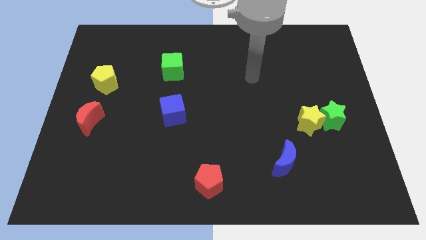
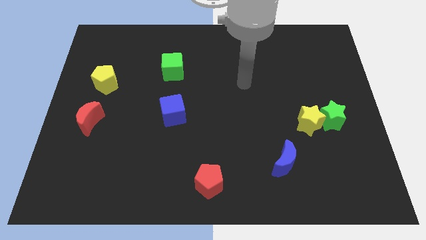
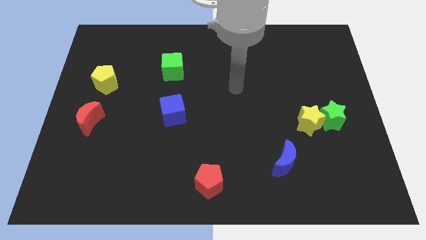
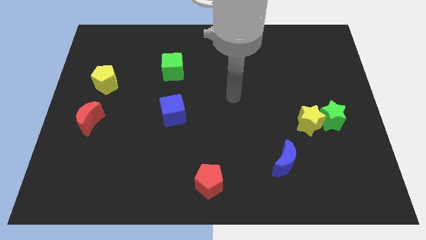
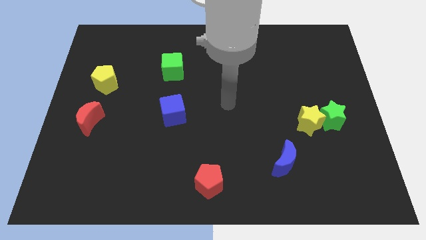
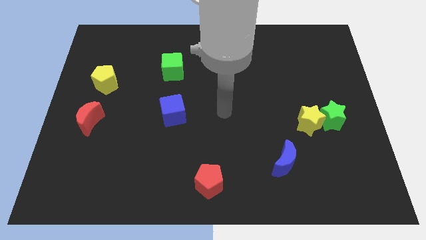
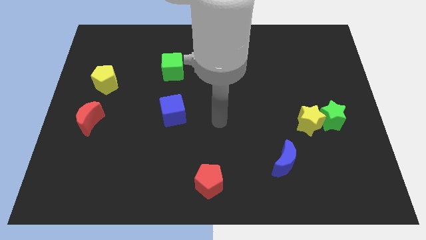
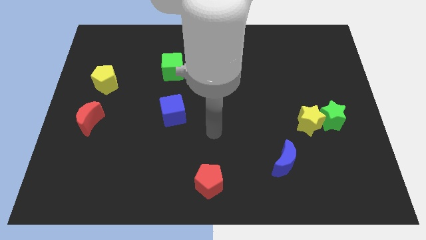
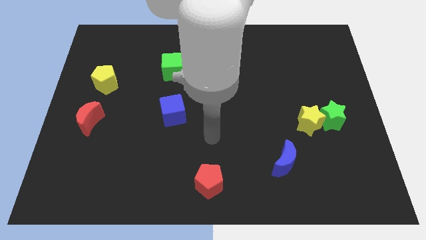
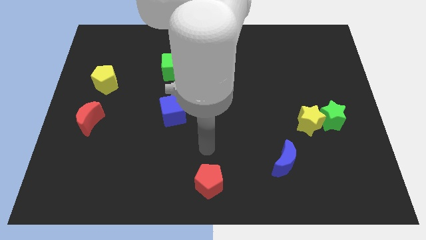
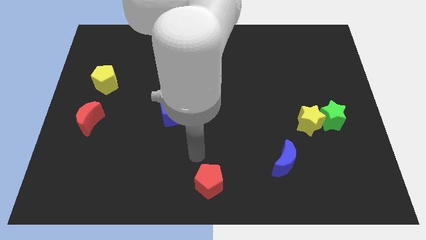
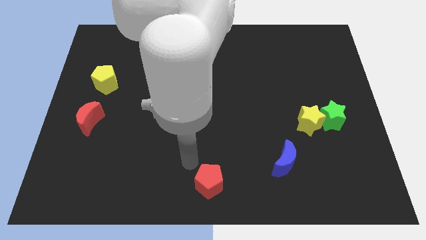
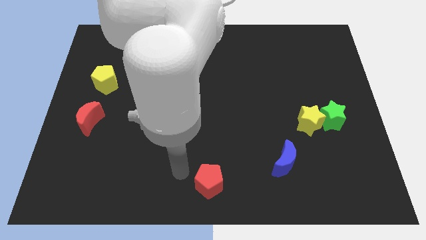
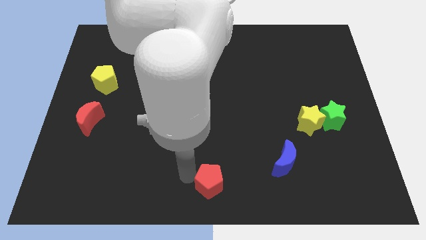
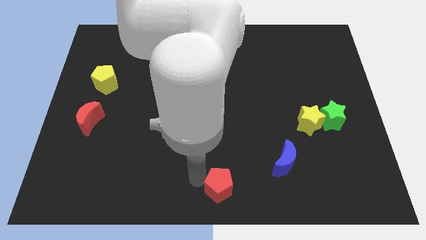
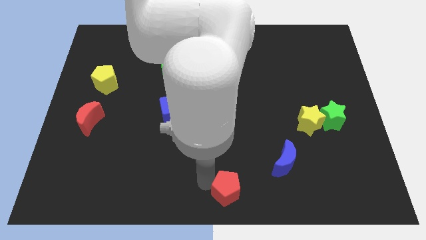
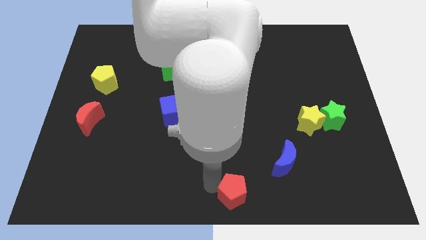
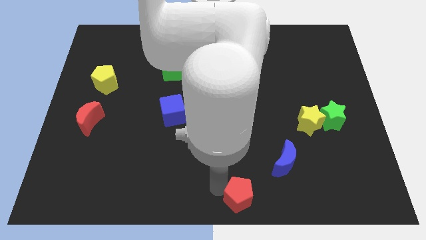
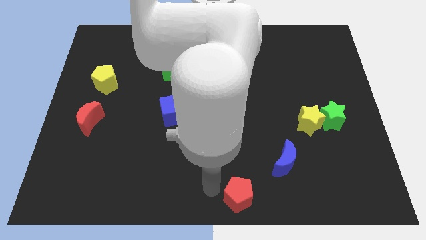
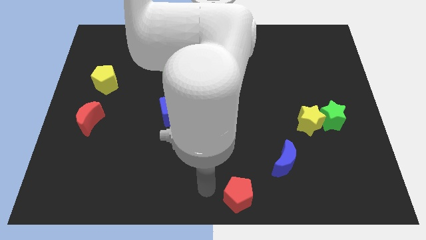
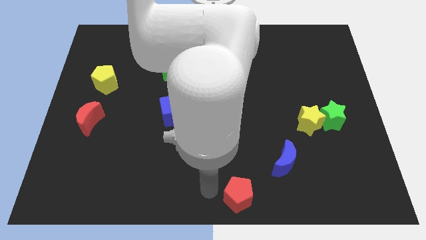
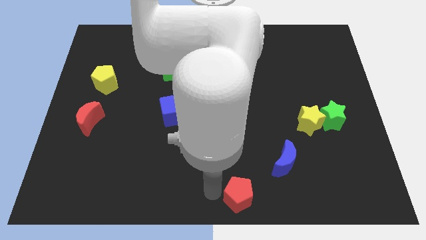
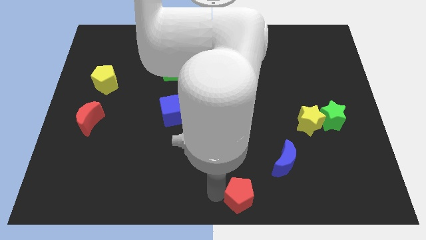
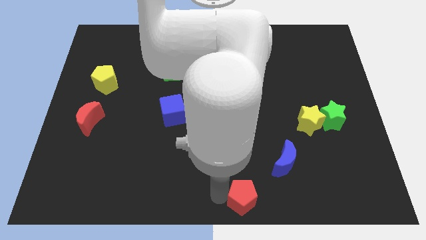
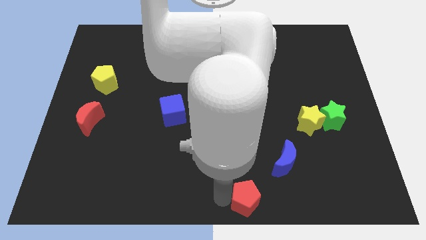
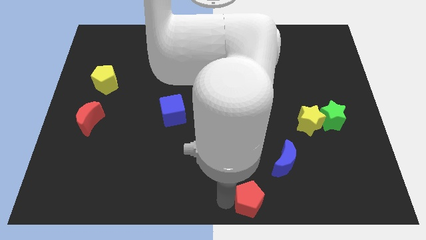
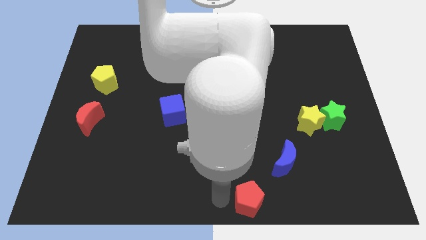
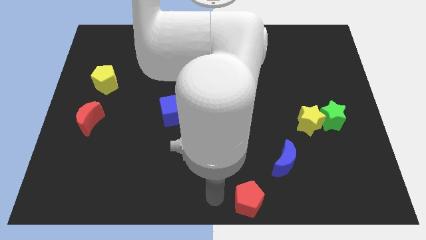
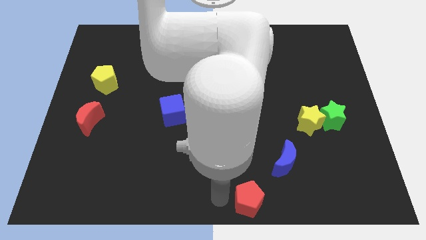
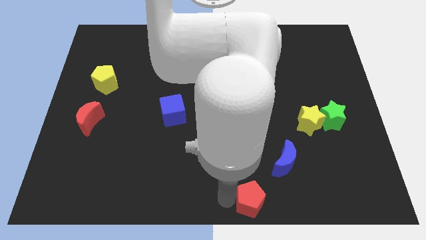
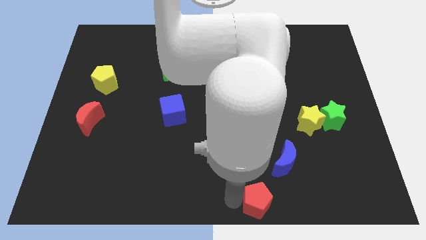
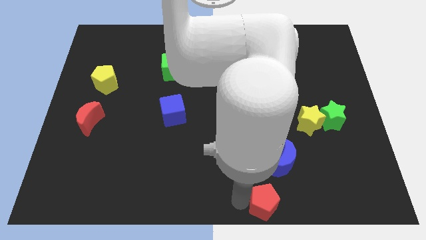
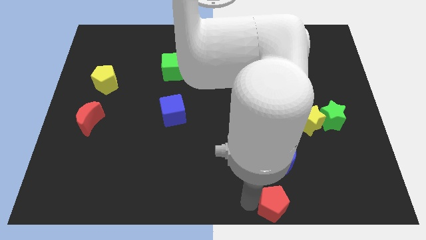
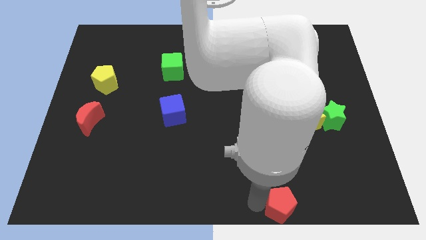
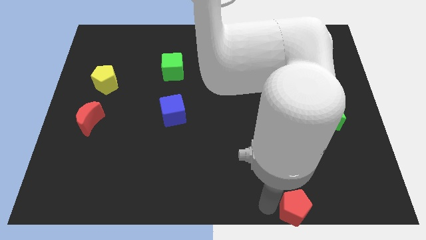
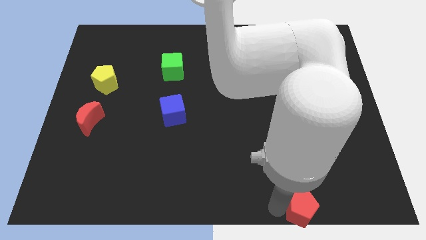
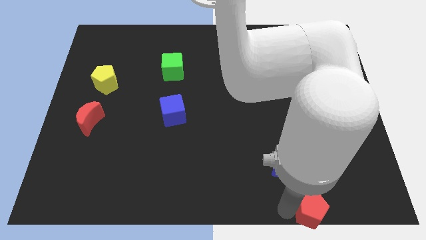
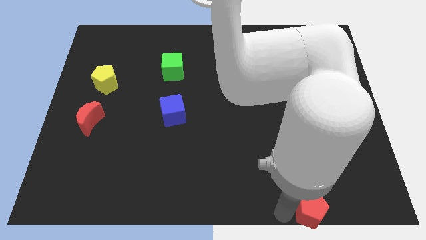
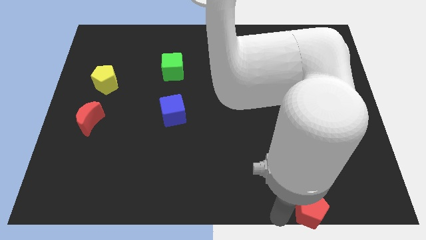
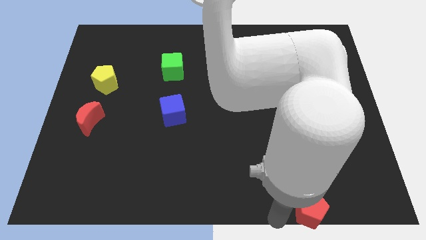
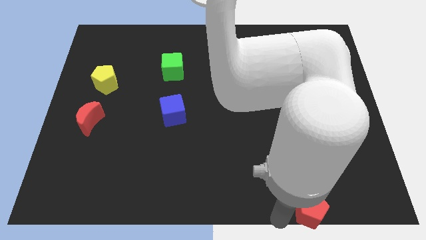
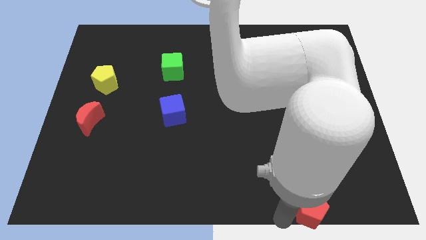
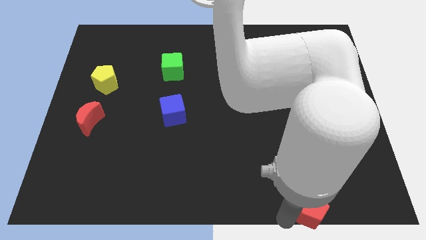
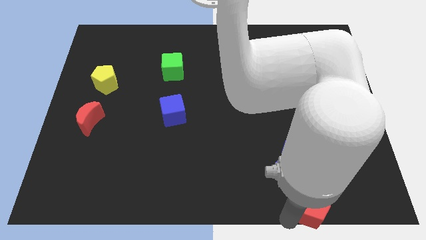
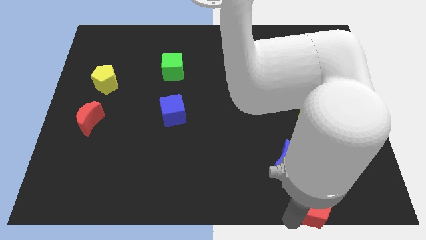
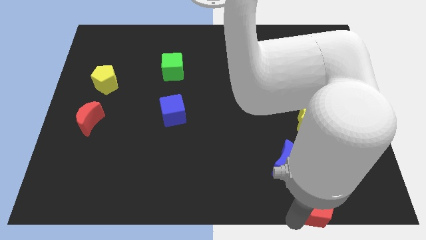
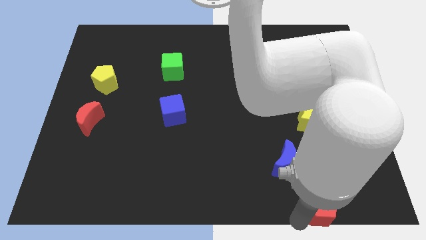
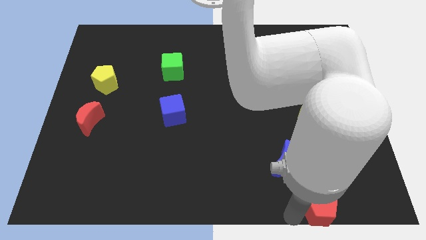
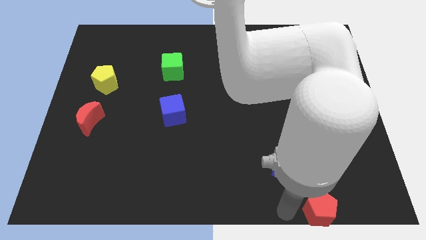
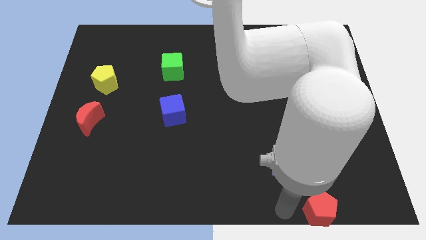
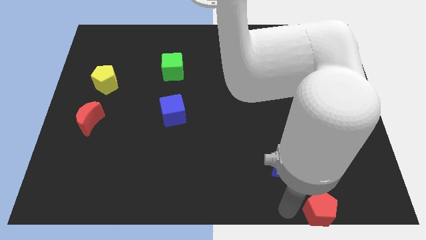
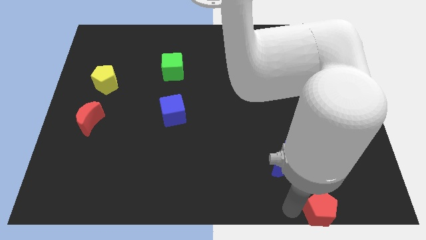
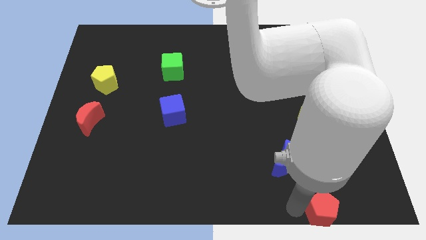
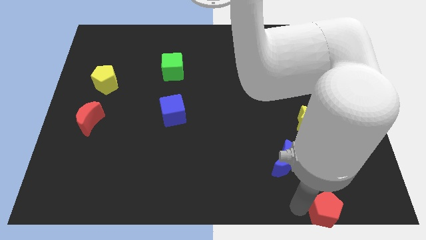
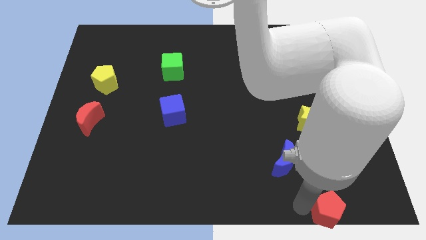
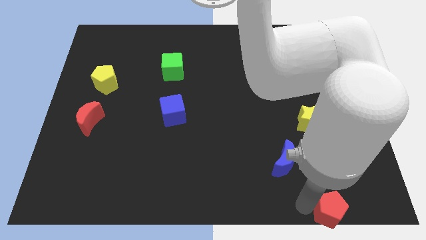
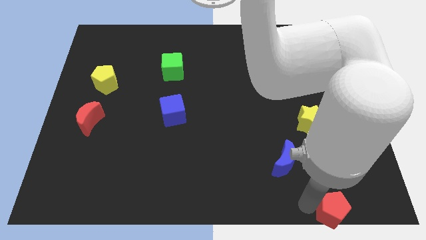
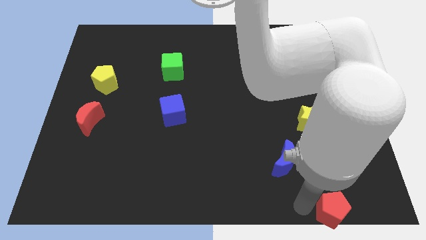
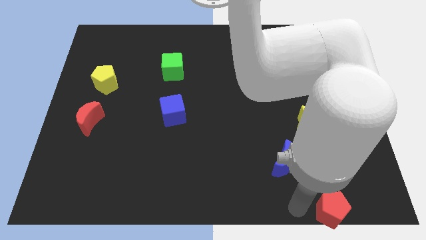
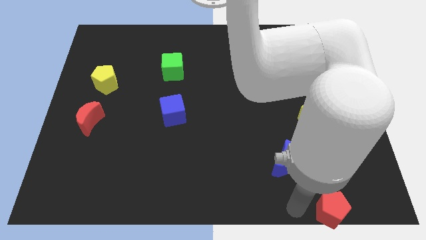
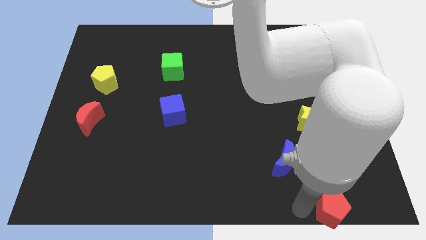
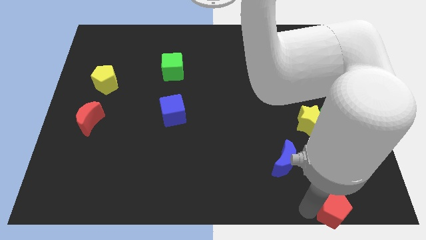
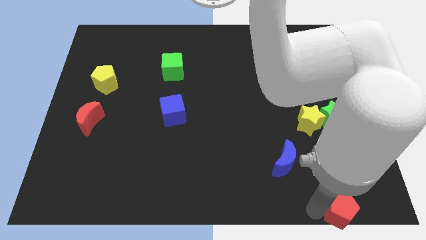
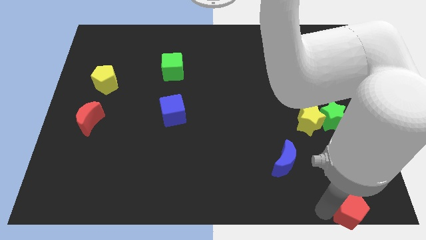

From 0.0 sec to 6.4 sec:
slide the red pentagon to the bottom right

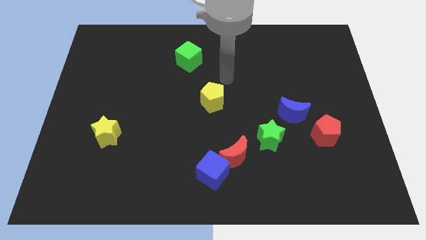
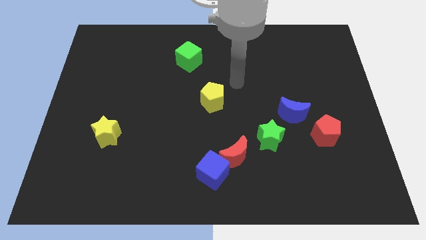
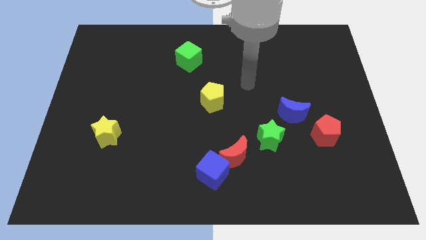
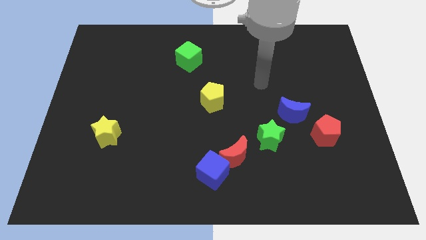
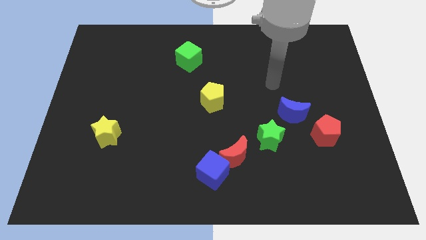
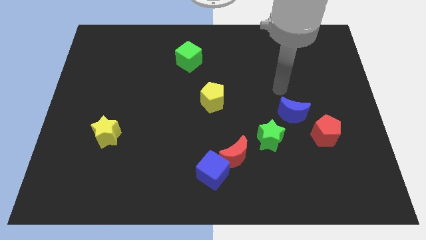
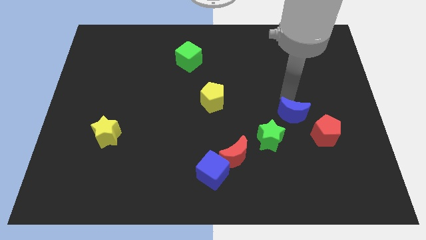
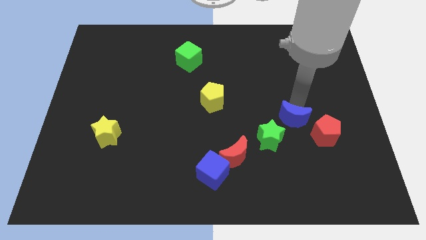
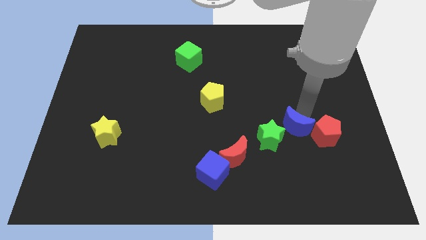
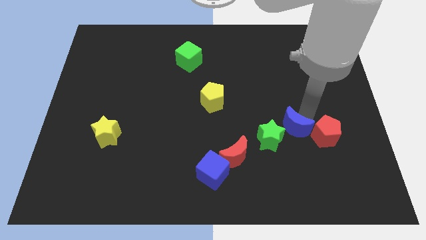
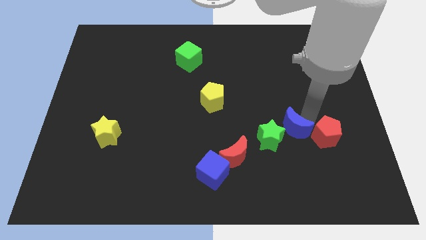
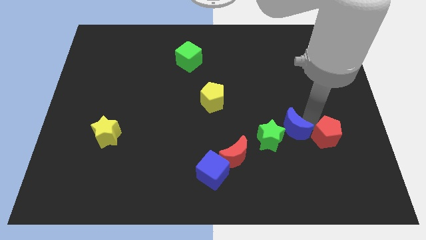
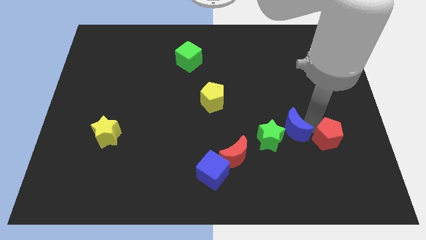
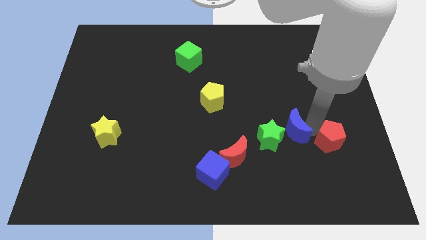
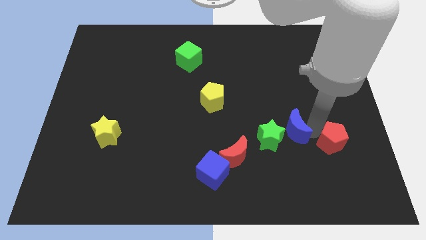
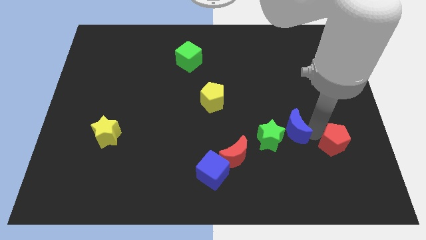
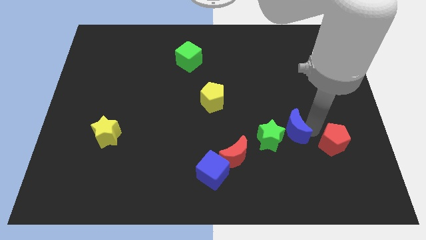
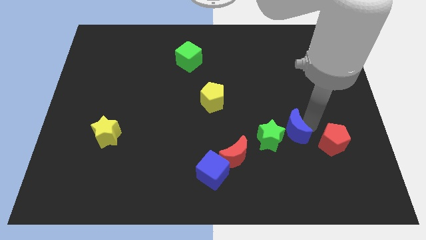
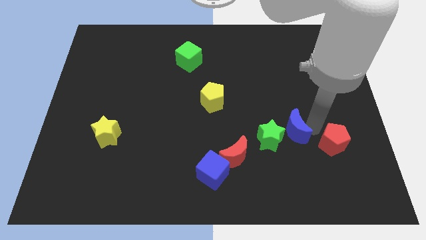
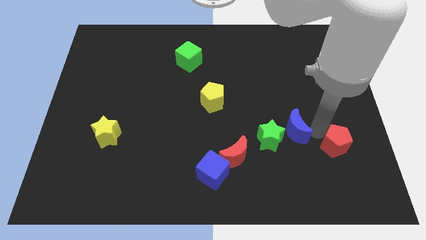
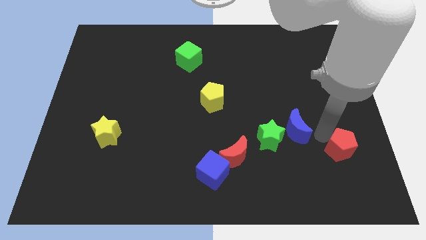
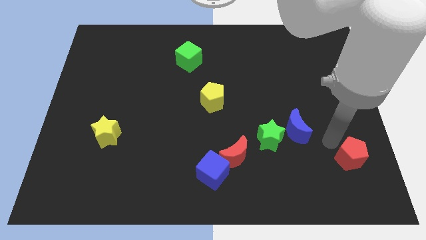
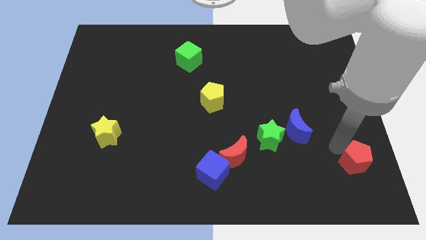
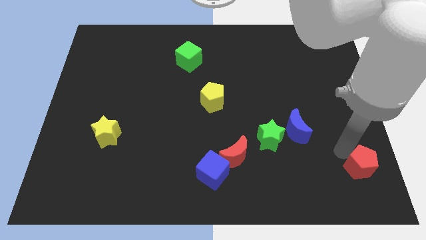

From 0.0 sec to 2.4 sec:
move the red pentagon to the bottom right of the board
